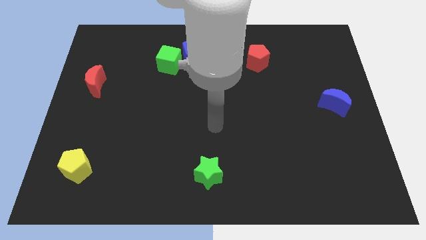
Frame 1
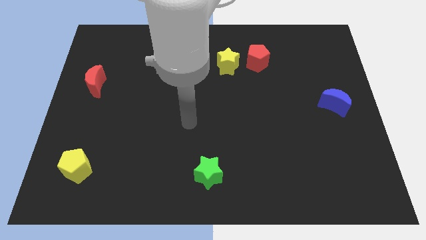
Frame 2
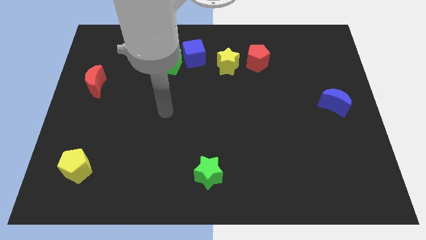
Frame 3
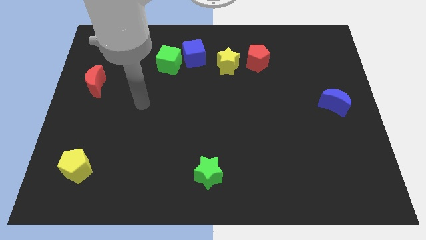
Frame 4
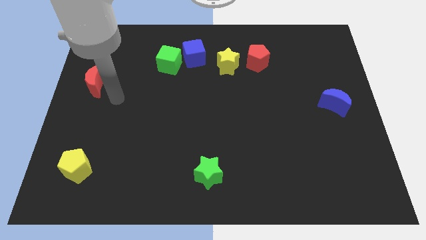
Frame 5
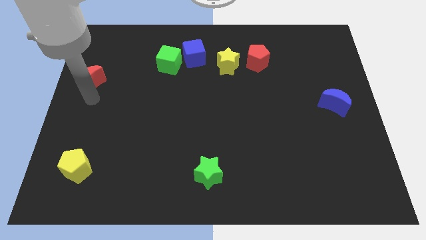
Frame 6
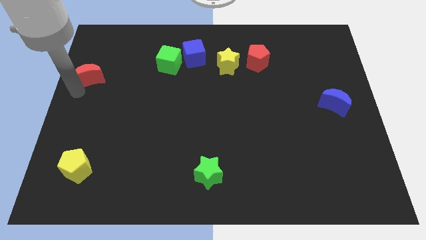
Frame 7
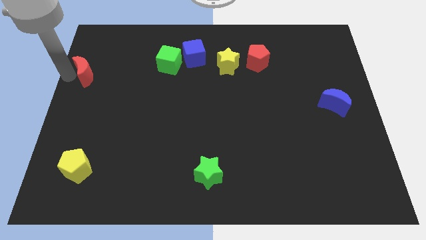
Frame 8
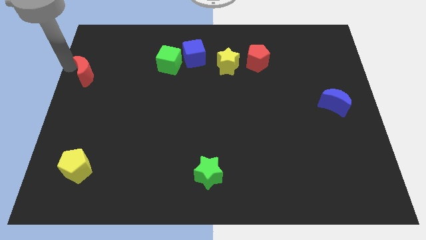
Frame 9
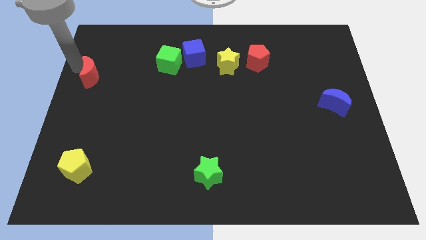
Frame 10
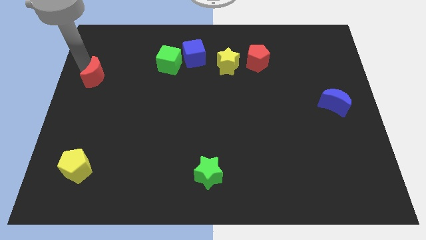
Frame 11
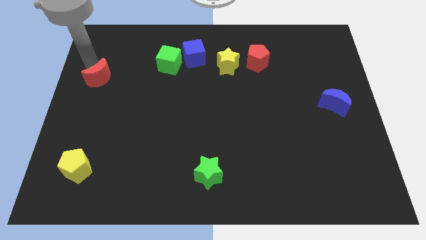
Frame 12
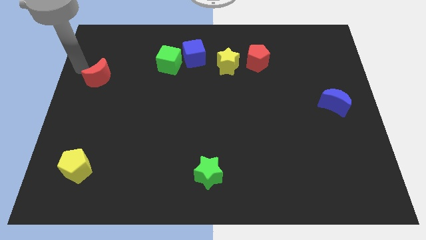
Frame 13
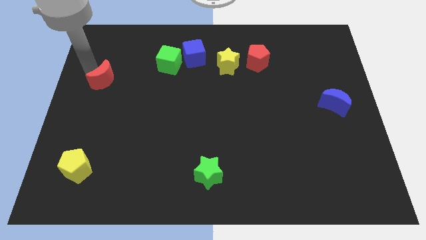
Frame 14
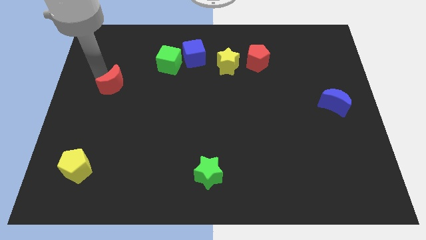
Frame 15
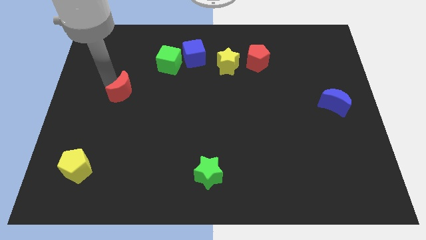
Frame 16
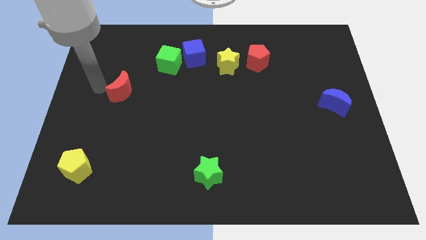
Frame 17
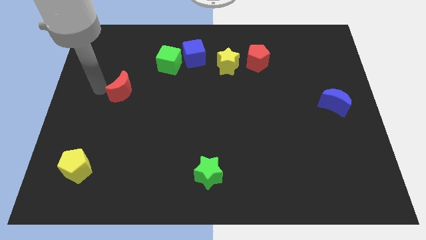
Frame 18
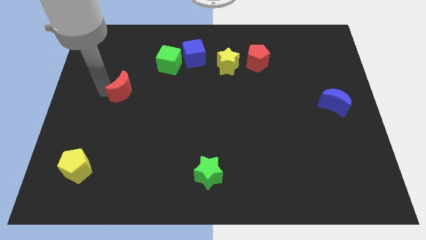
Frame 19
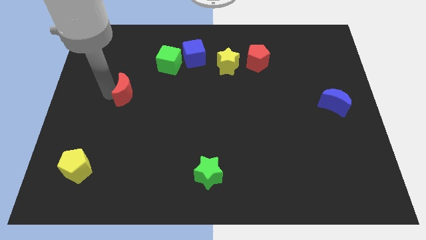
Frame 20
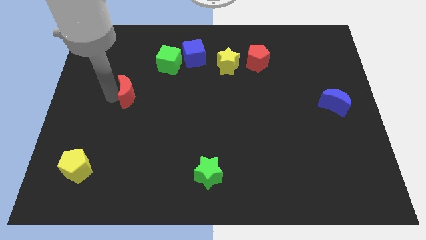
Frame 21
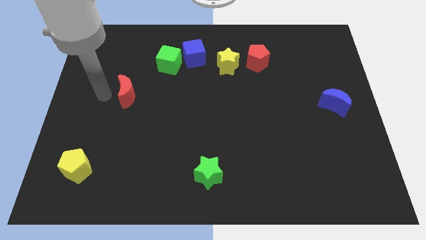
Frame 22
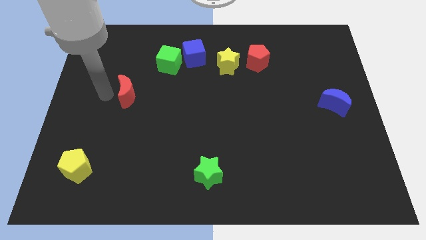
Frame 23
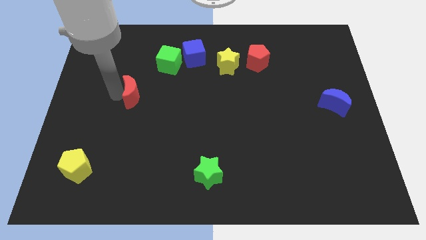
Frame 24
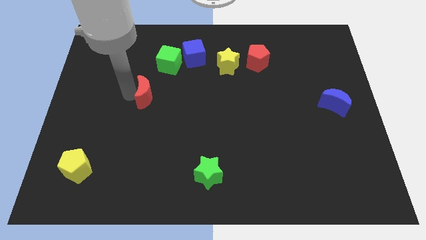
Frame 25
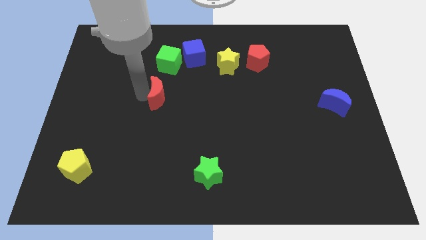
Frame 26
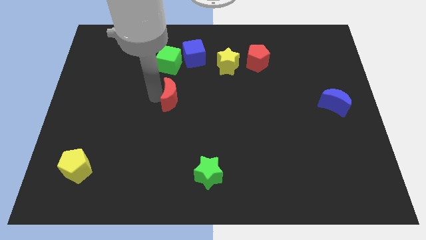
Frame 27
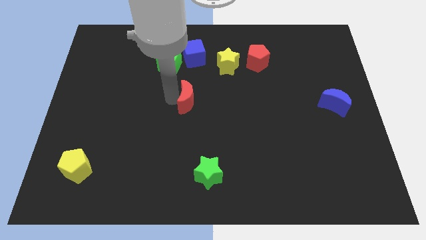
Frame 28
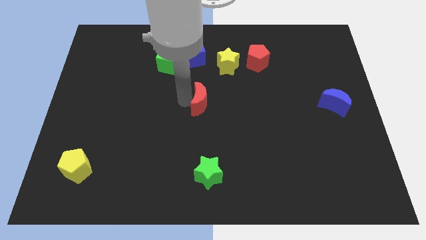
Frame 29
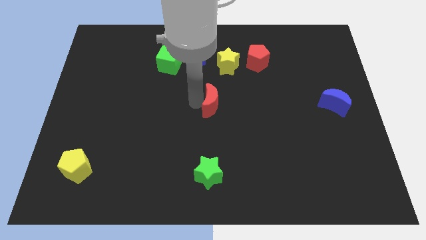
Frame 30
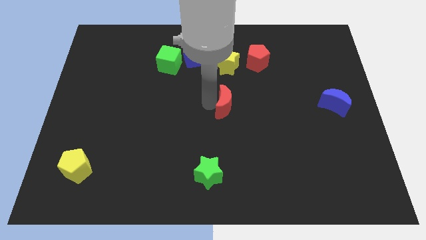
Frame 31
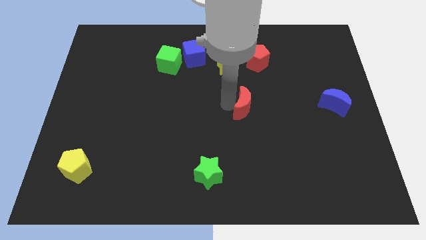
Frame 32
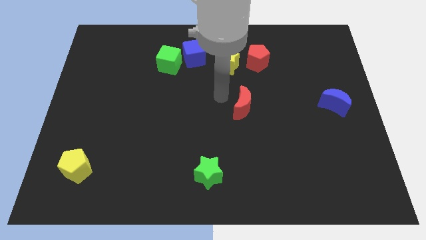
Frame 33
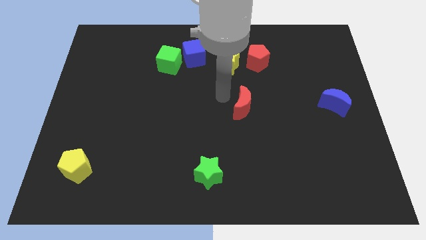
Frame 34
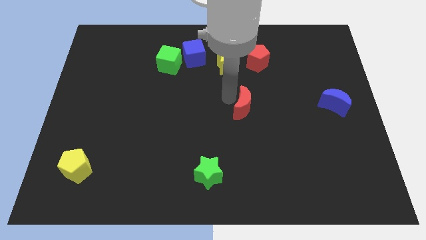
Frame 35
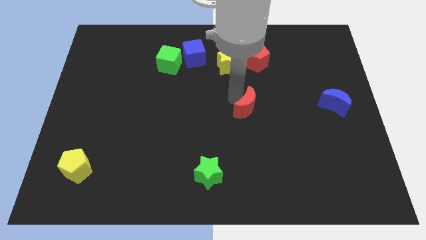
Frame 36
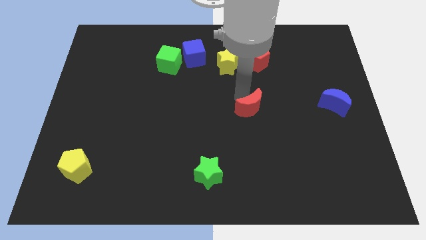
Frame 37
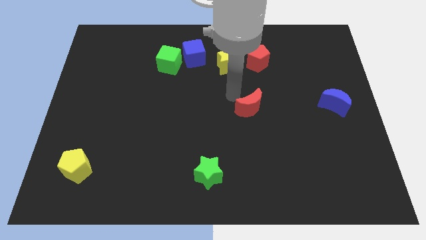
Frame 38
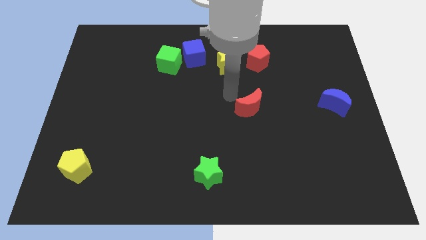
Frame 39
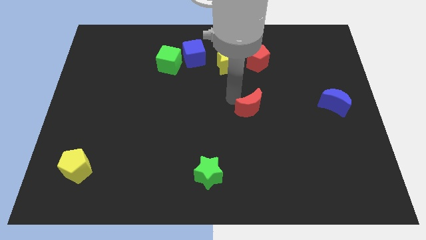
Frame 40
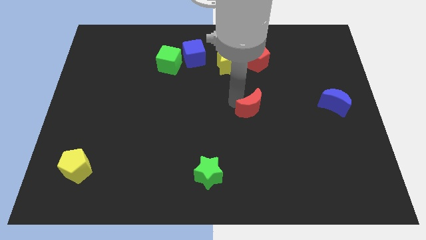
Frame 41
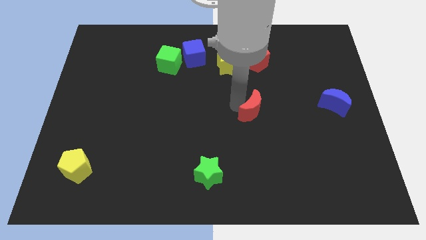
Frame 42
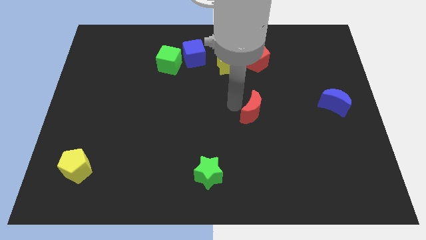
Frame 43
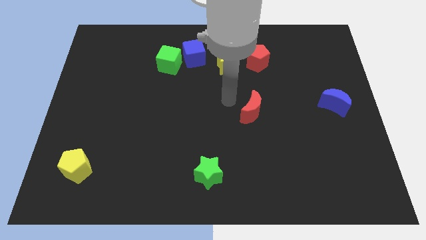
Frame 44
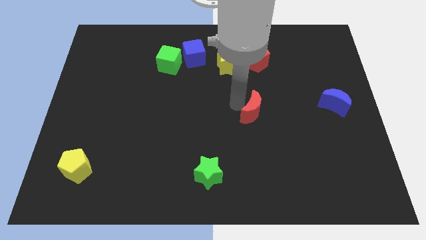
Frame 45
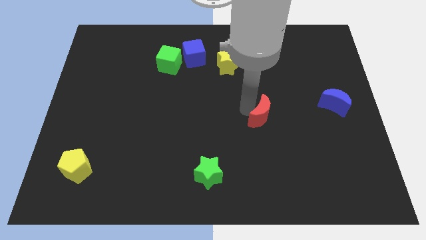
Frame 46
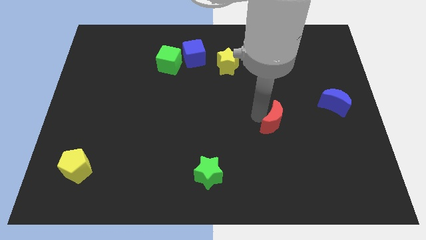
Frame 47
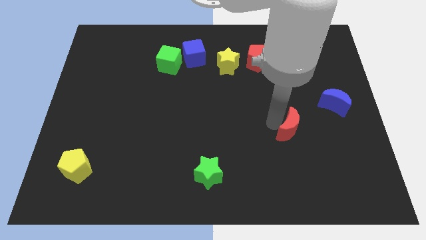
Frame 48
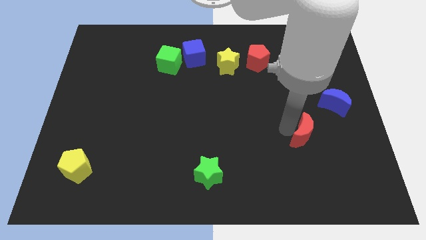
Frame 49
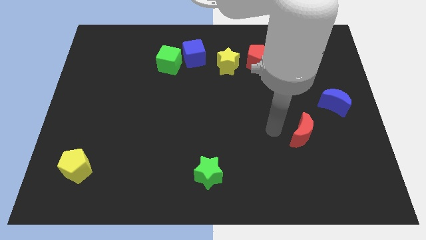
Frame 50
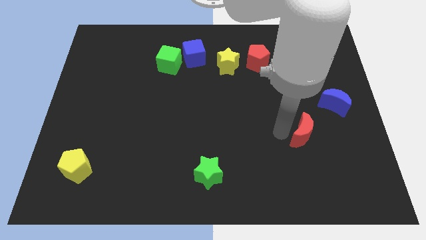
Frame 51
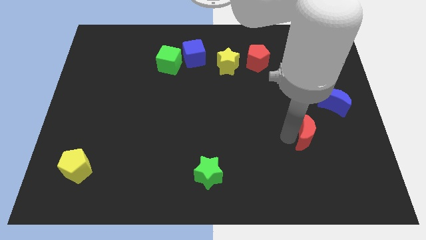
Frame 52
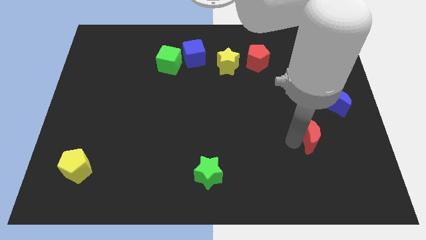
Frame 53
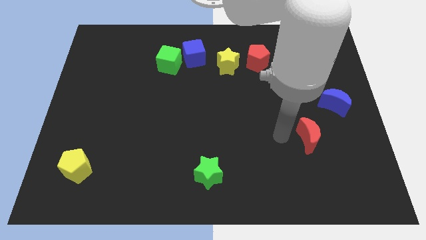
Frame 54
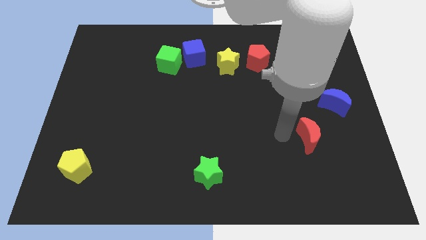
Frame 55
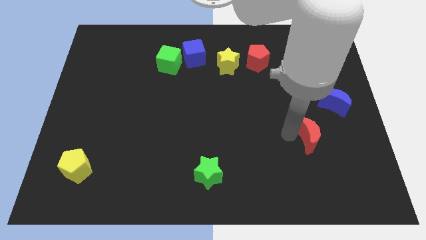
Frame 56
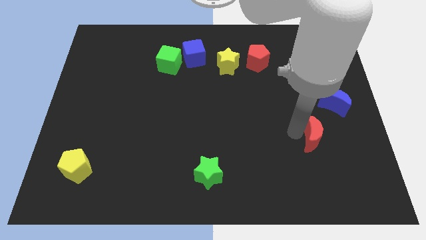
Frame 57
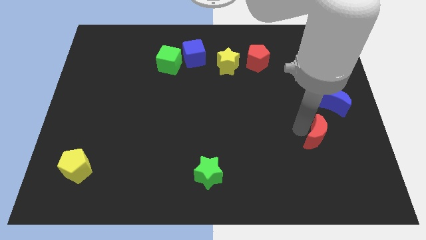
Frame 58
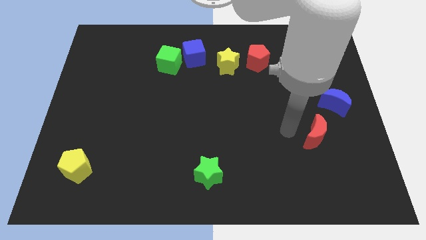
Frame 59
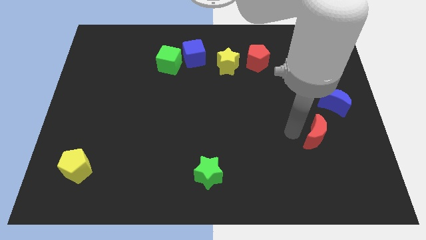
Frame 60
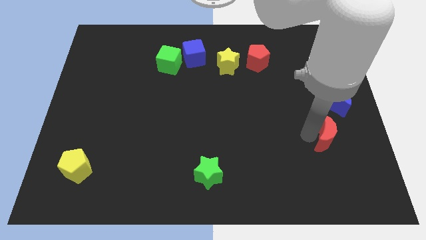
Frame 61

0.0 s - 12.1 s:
slide the red moon to the bottom of the blue moon
